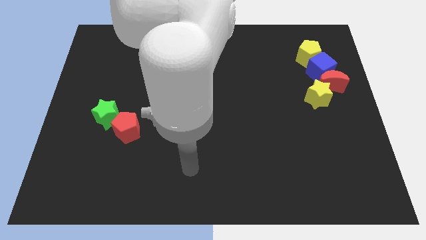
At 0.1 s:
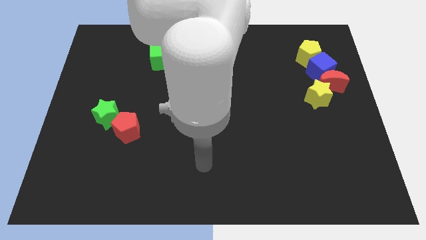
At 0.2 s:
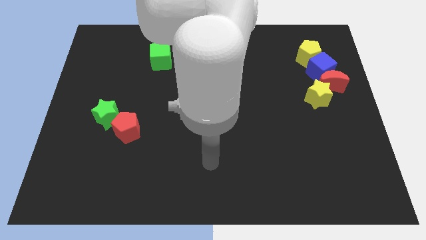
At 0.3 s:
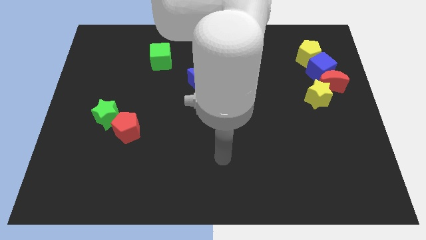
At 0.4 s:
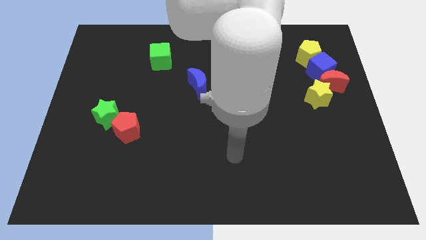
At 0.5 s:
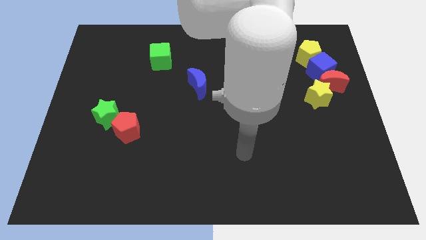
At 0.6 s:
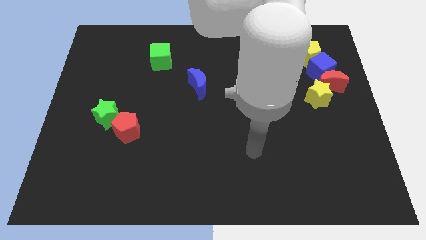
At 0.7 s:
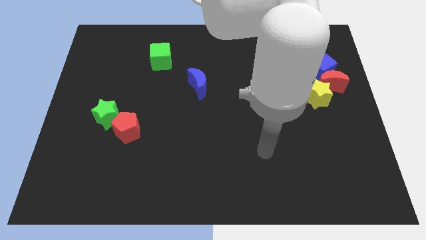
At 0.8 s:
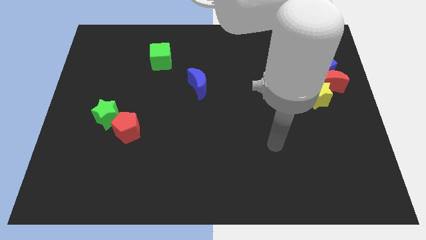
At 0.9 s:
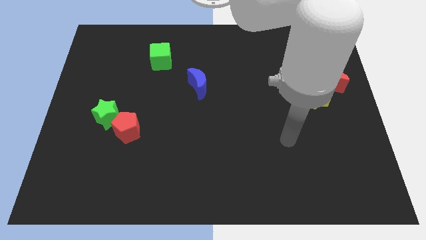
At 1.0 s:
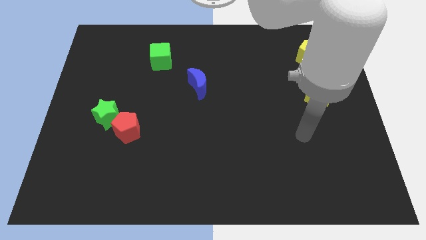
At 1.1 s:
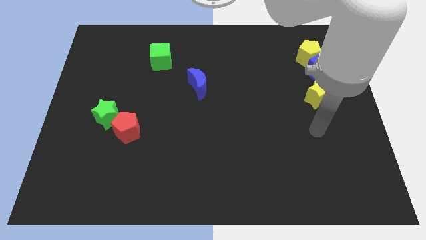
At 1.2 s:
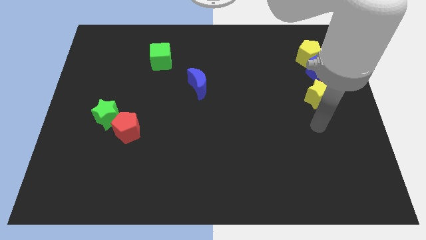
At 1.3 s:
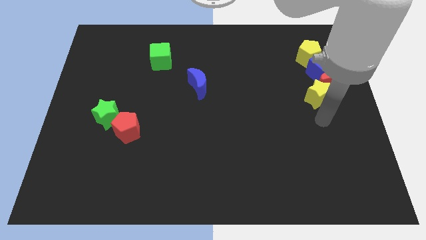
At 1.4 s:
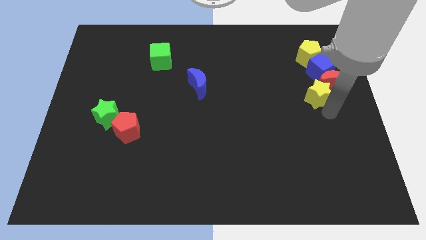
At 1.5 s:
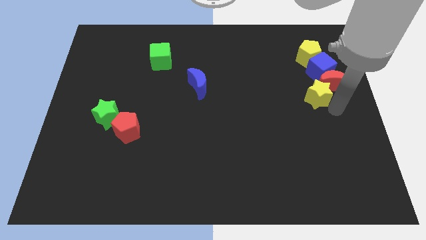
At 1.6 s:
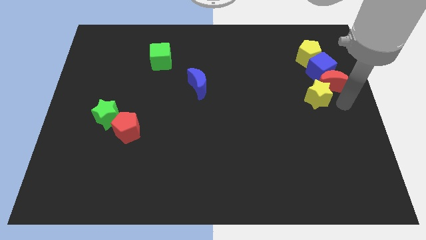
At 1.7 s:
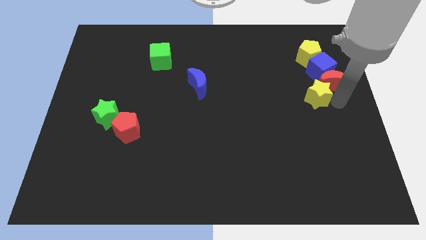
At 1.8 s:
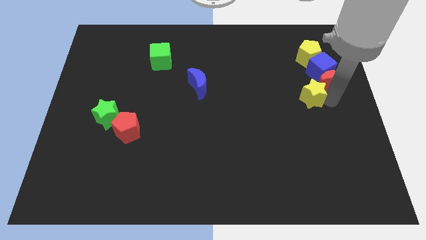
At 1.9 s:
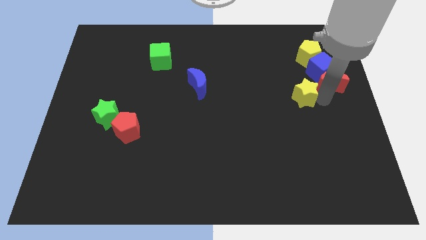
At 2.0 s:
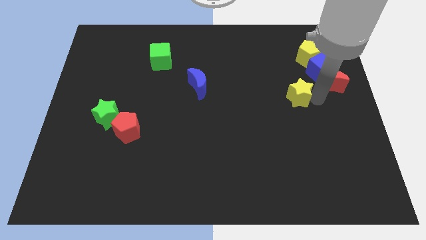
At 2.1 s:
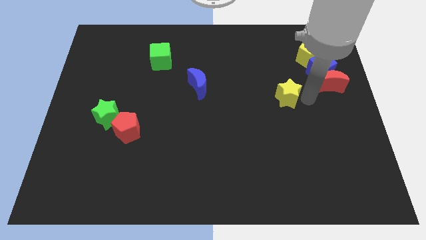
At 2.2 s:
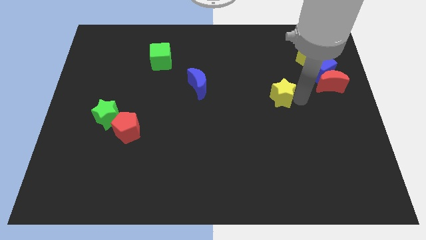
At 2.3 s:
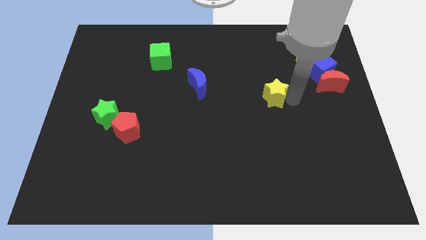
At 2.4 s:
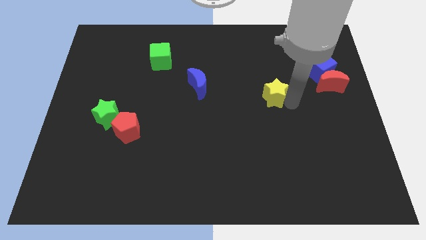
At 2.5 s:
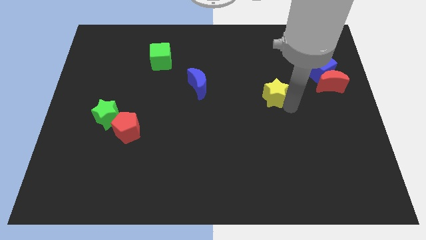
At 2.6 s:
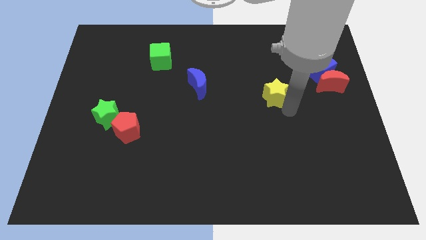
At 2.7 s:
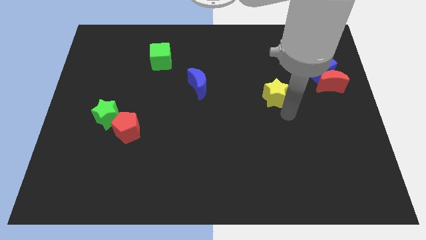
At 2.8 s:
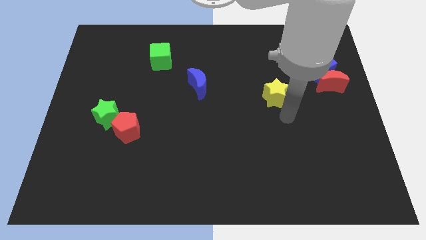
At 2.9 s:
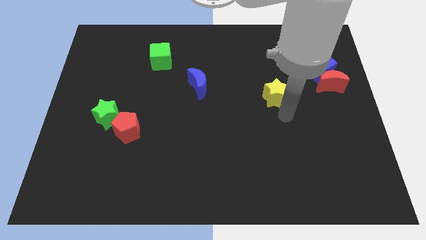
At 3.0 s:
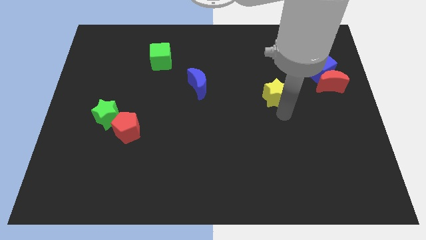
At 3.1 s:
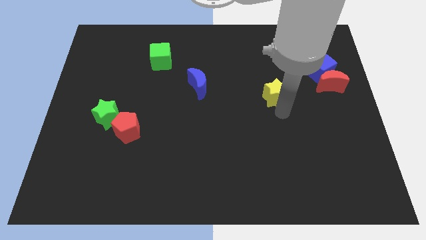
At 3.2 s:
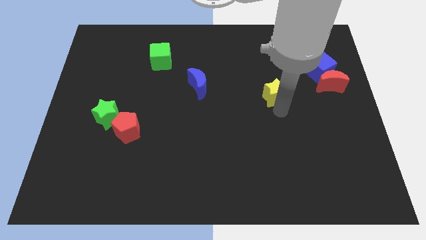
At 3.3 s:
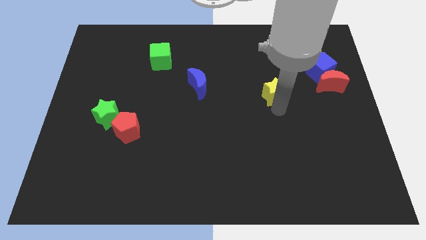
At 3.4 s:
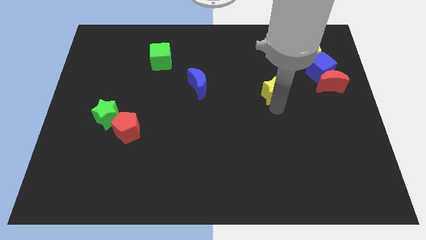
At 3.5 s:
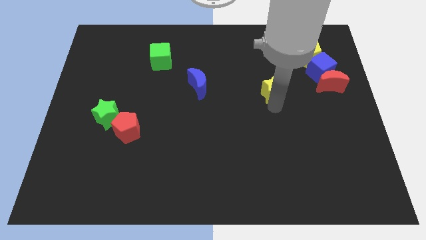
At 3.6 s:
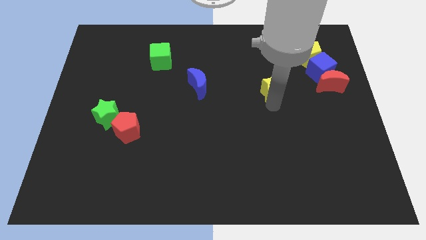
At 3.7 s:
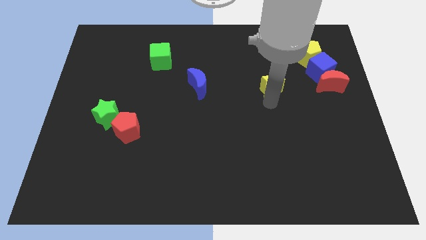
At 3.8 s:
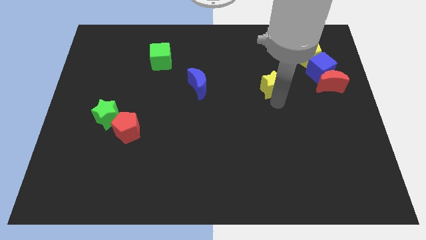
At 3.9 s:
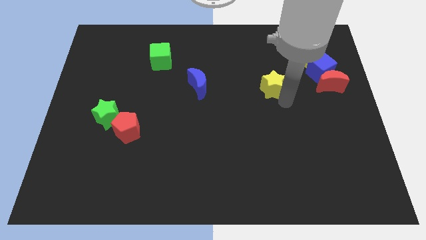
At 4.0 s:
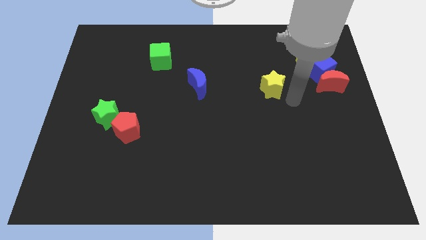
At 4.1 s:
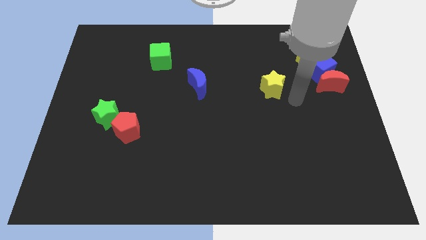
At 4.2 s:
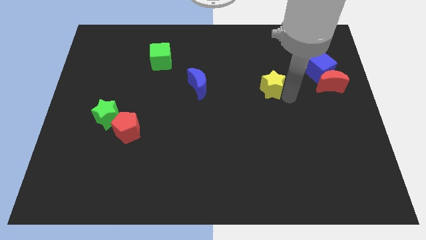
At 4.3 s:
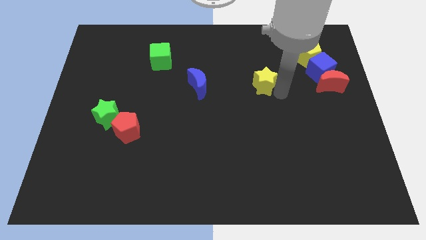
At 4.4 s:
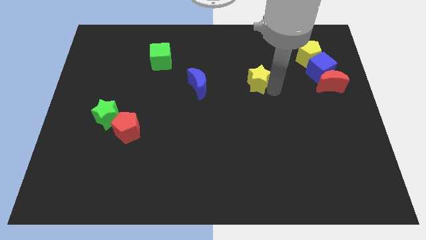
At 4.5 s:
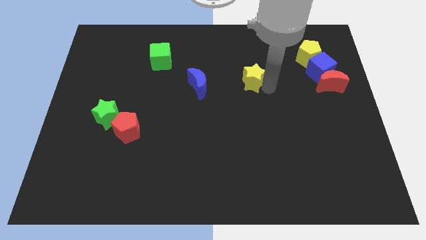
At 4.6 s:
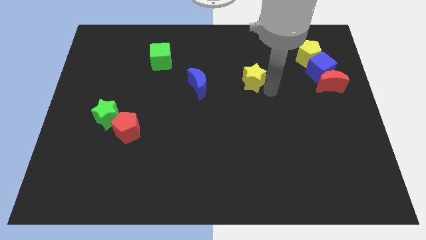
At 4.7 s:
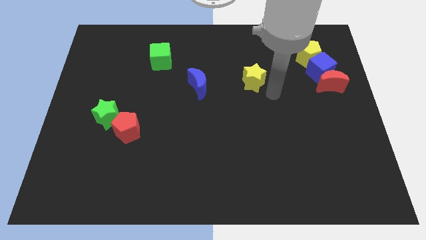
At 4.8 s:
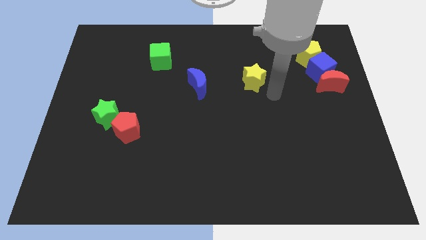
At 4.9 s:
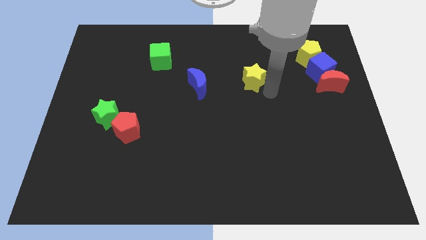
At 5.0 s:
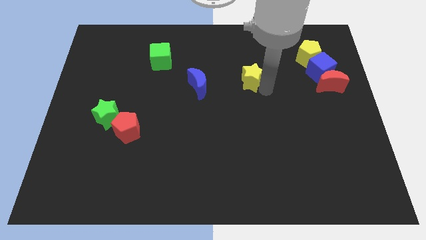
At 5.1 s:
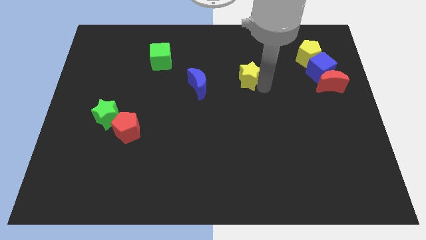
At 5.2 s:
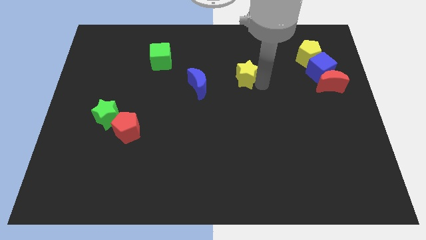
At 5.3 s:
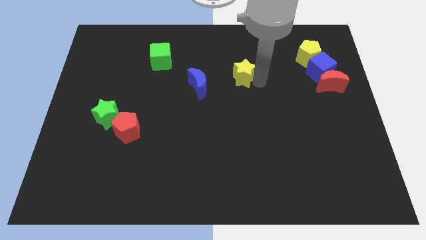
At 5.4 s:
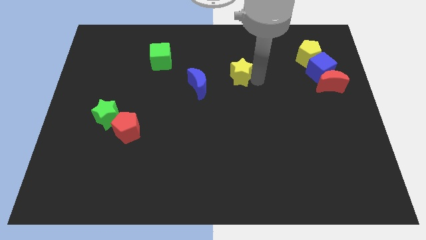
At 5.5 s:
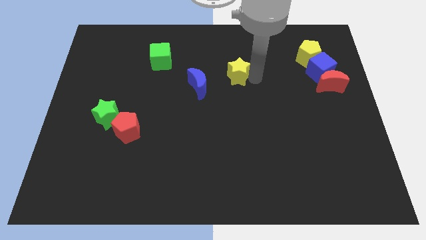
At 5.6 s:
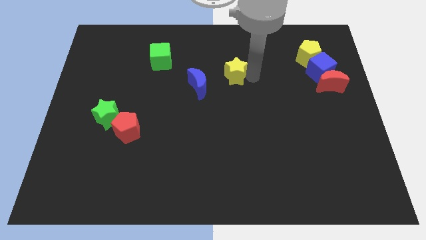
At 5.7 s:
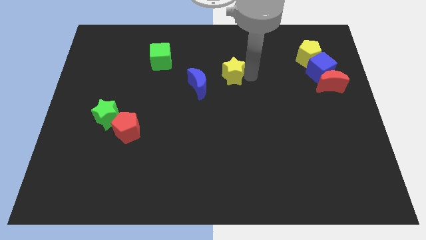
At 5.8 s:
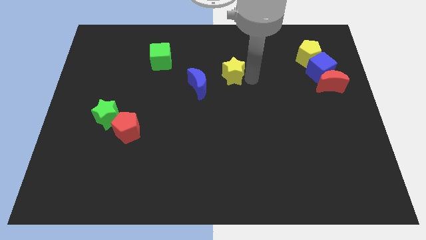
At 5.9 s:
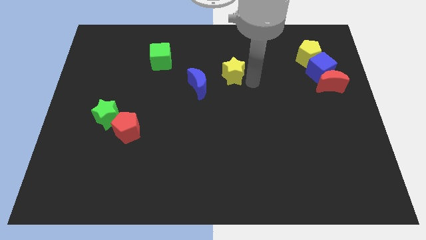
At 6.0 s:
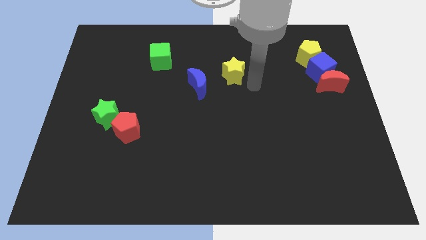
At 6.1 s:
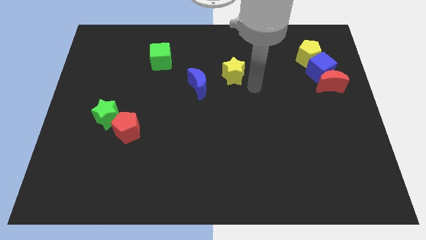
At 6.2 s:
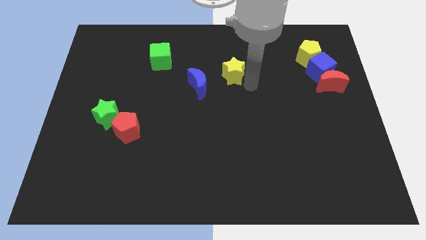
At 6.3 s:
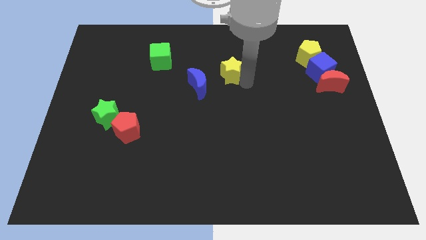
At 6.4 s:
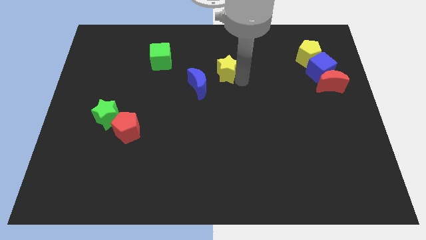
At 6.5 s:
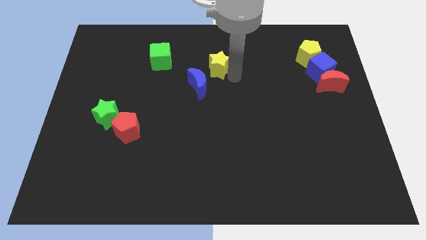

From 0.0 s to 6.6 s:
put the yellow star right of the green cube

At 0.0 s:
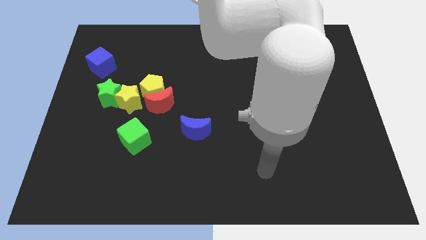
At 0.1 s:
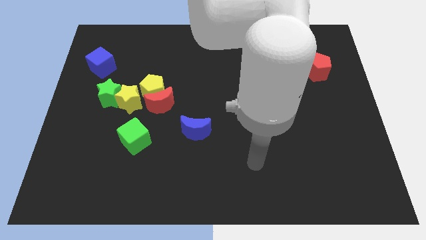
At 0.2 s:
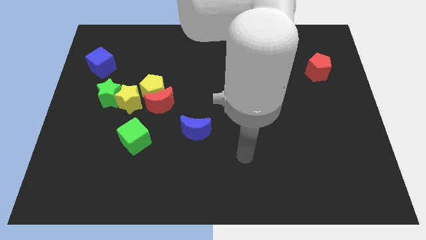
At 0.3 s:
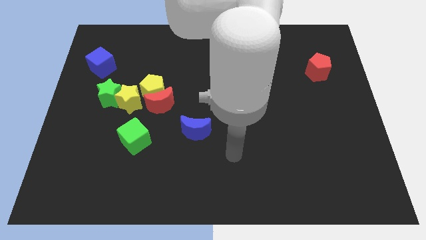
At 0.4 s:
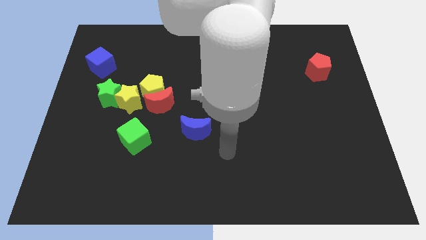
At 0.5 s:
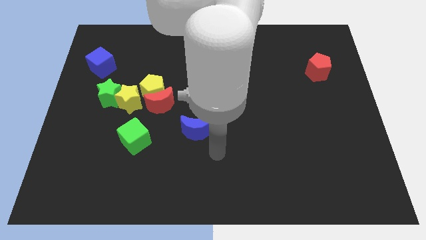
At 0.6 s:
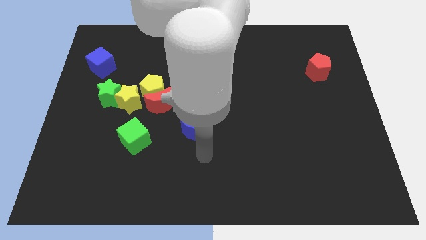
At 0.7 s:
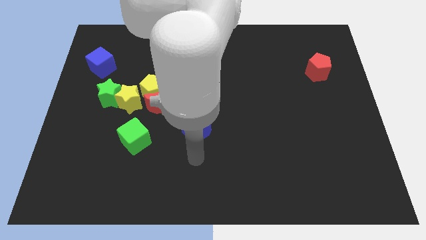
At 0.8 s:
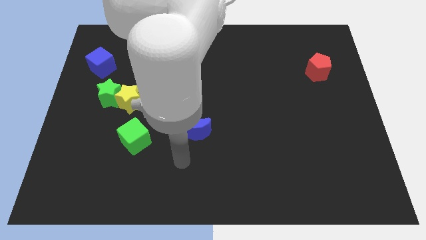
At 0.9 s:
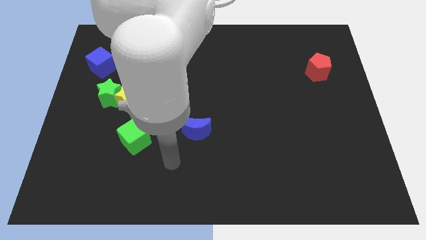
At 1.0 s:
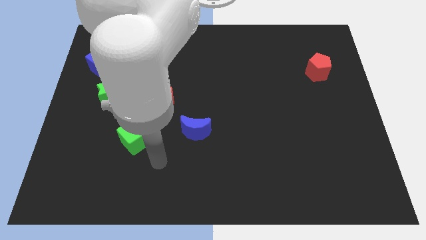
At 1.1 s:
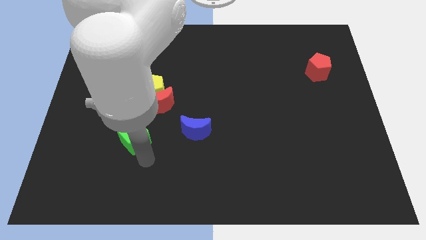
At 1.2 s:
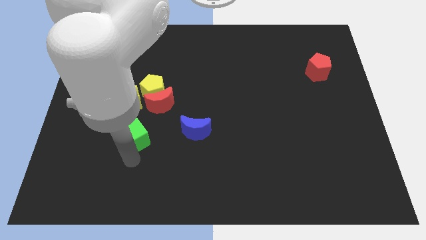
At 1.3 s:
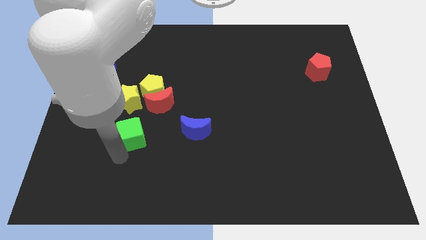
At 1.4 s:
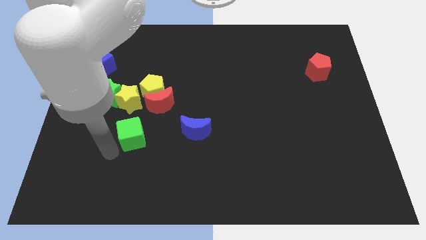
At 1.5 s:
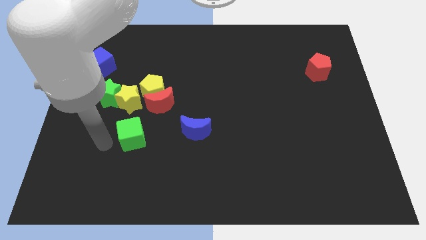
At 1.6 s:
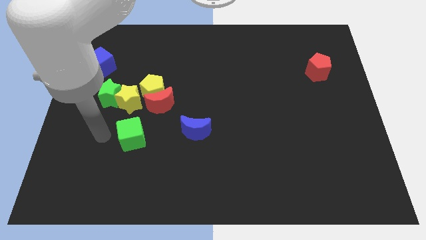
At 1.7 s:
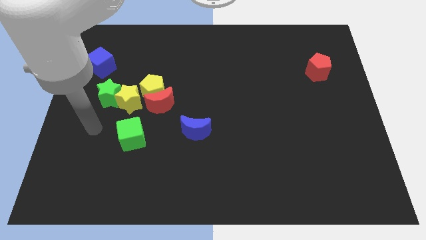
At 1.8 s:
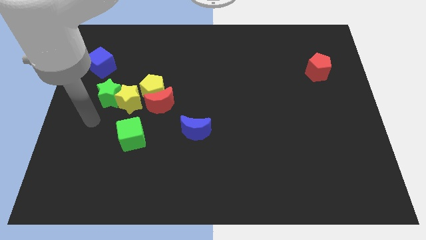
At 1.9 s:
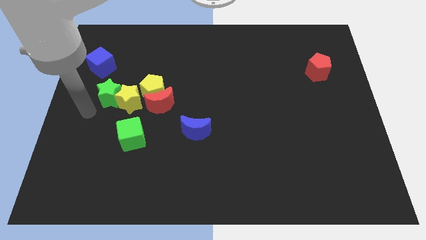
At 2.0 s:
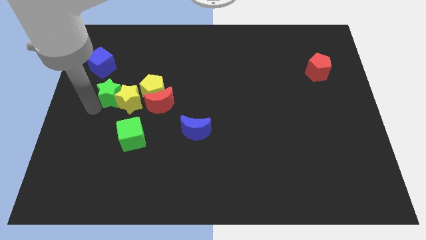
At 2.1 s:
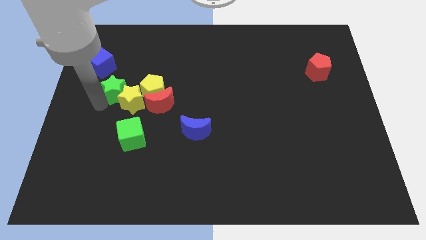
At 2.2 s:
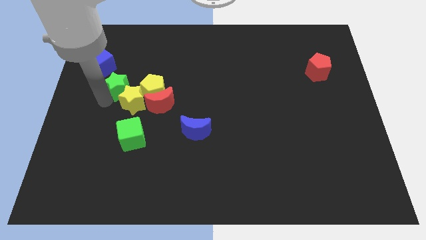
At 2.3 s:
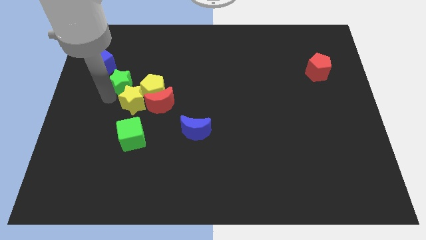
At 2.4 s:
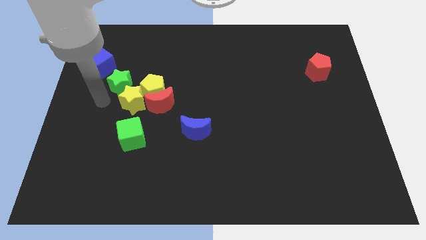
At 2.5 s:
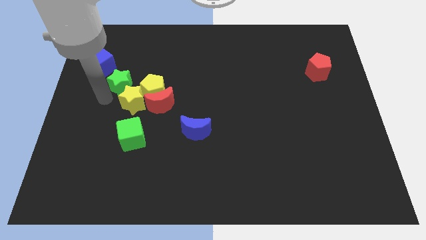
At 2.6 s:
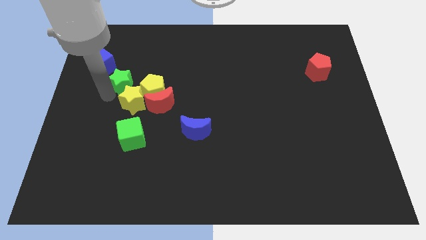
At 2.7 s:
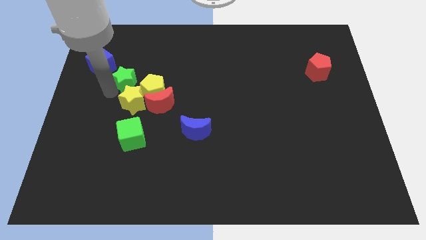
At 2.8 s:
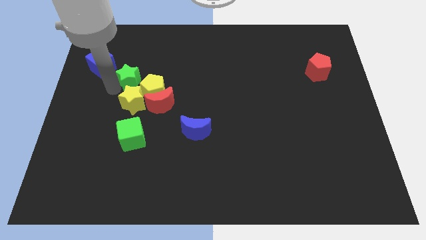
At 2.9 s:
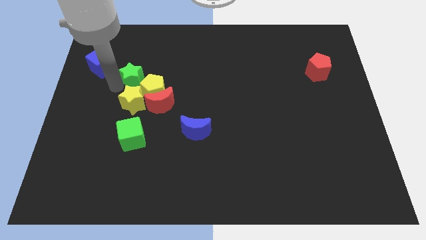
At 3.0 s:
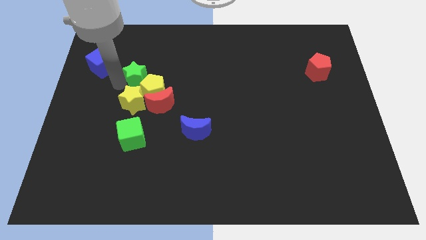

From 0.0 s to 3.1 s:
move the green star to the top of the yellow pentagon
